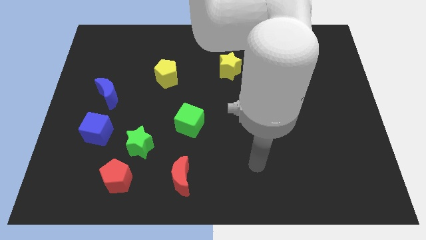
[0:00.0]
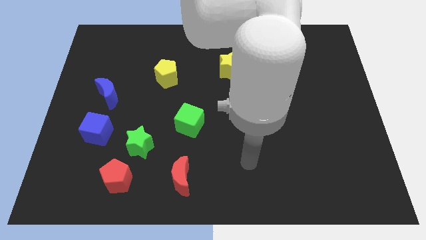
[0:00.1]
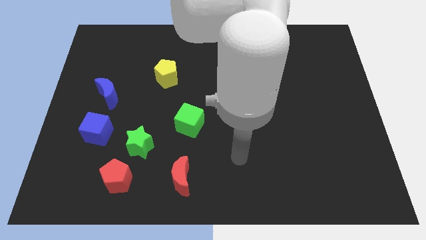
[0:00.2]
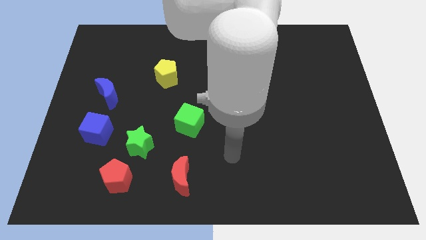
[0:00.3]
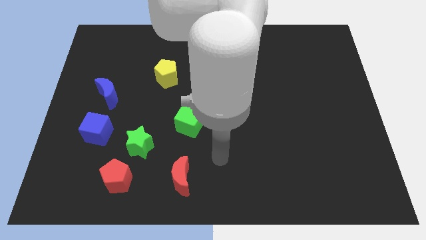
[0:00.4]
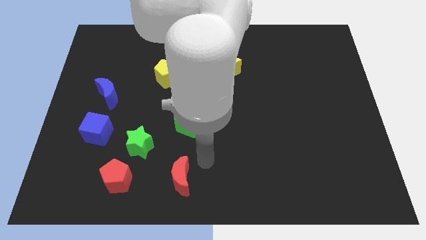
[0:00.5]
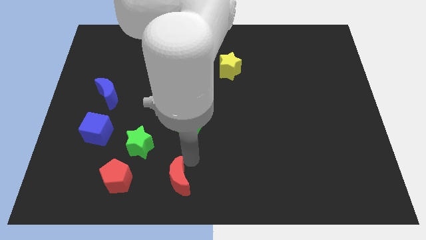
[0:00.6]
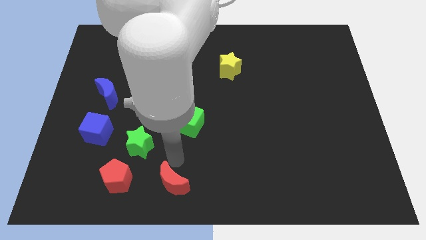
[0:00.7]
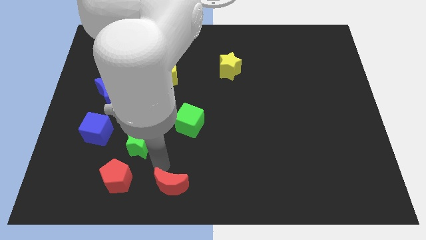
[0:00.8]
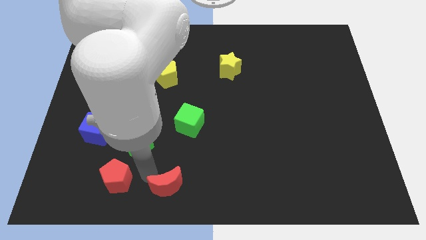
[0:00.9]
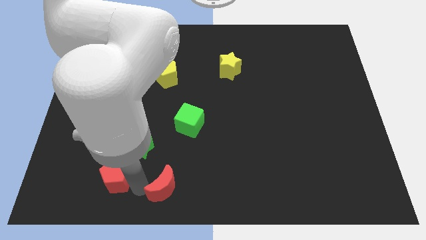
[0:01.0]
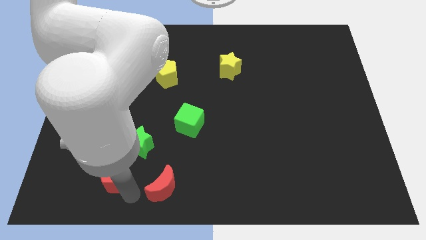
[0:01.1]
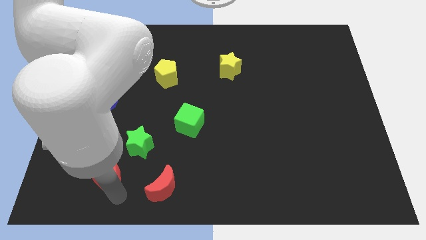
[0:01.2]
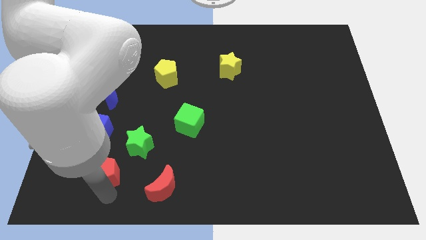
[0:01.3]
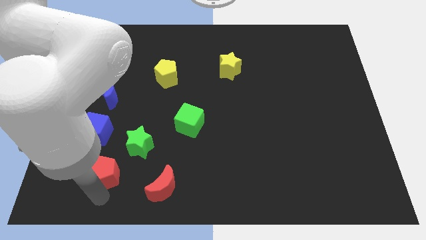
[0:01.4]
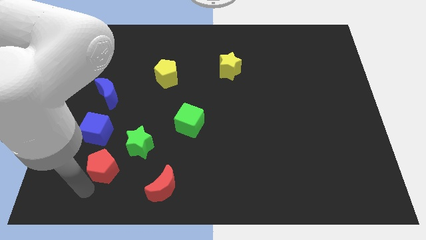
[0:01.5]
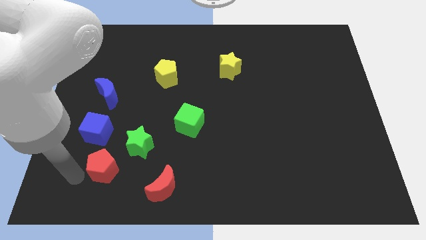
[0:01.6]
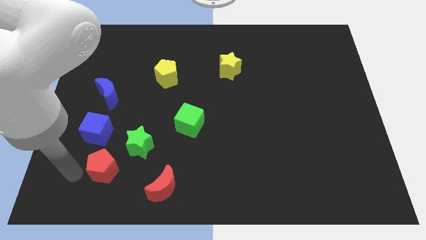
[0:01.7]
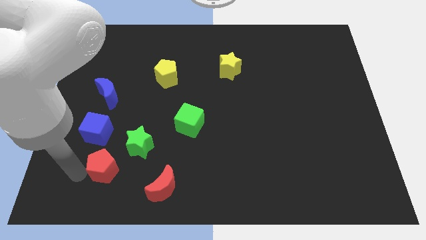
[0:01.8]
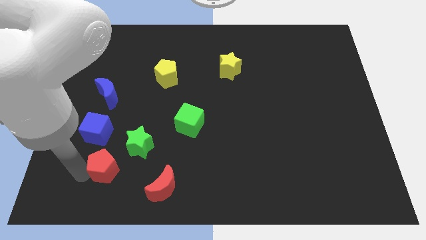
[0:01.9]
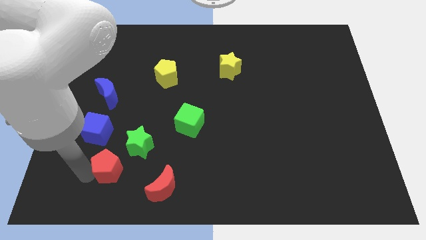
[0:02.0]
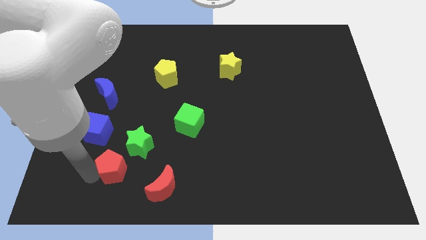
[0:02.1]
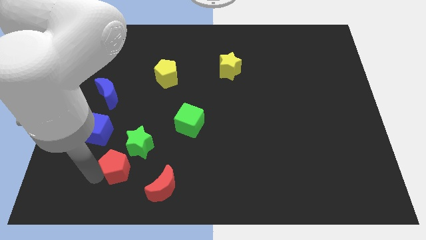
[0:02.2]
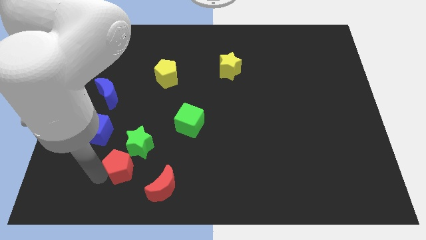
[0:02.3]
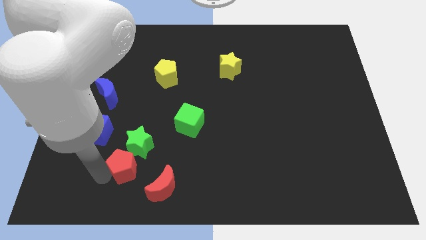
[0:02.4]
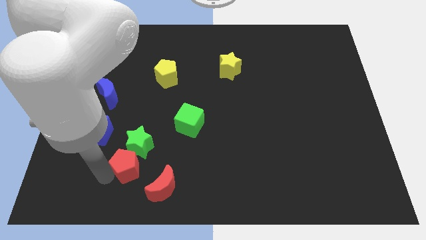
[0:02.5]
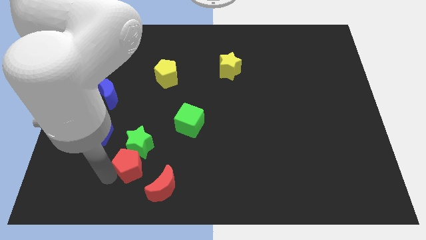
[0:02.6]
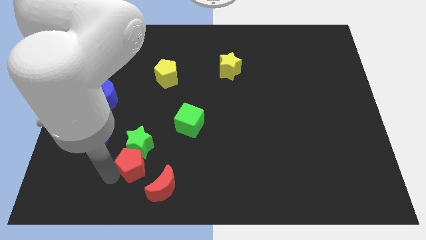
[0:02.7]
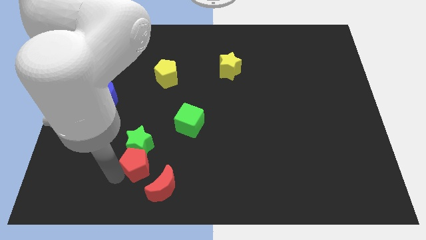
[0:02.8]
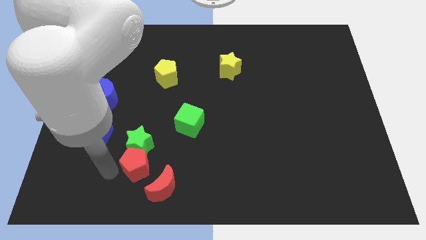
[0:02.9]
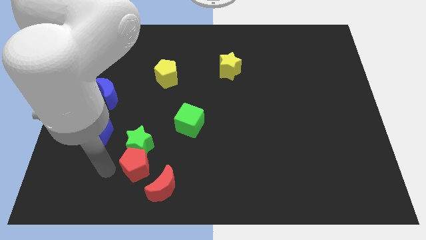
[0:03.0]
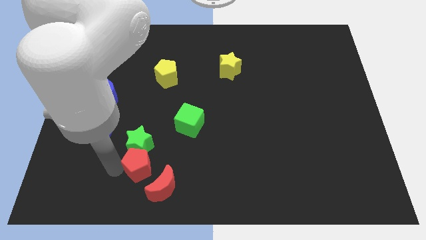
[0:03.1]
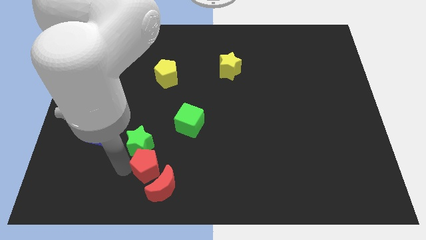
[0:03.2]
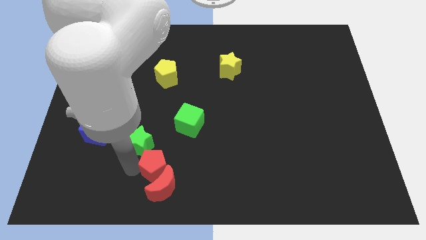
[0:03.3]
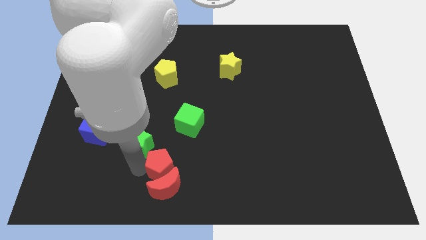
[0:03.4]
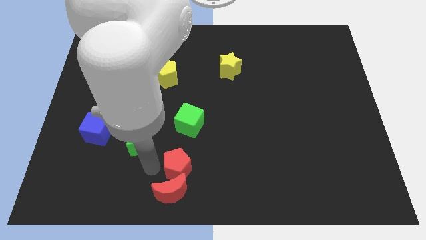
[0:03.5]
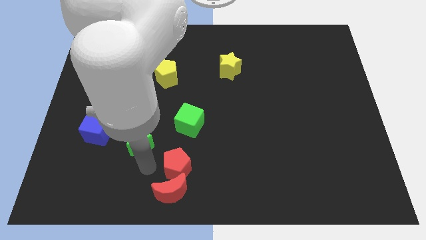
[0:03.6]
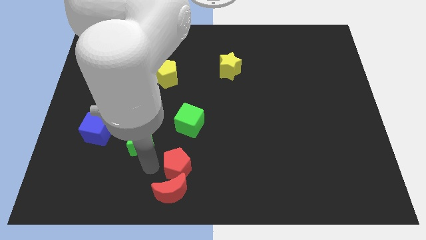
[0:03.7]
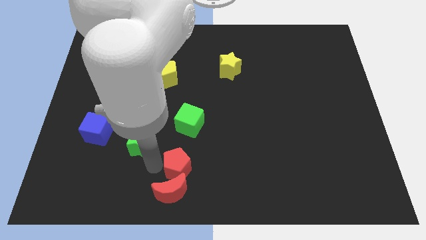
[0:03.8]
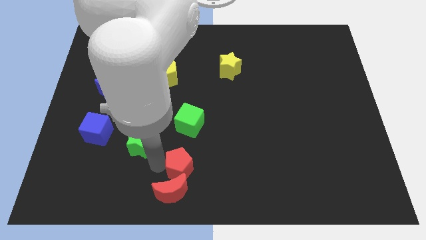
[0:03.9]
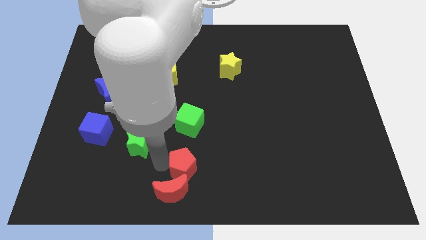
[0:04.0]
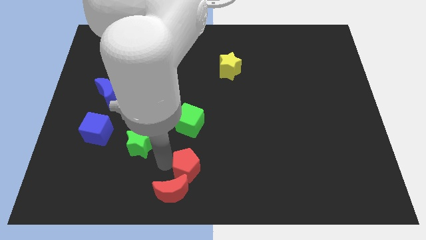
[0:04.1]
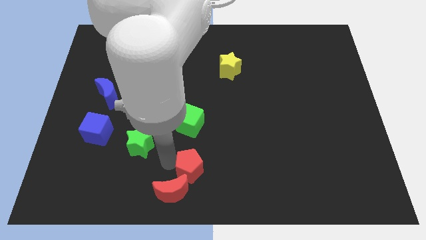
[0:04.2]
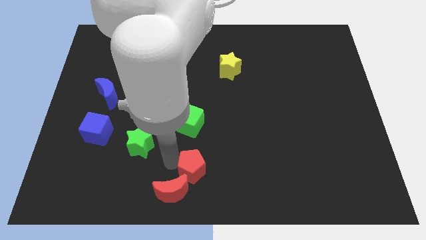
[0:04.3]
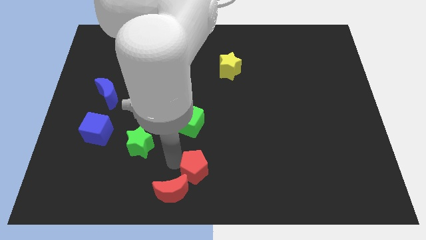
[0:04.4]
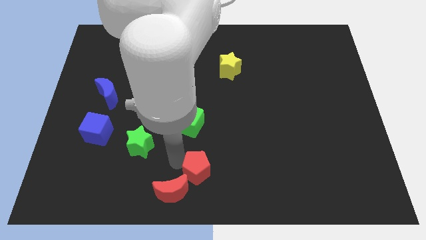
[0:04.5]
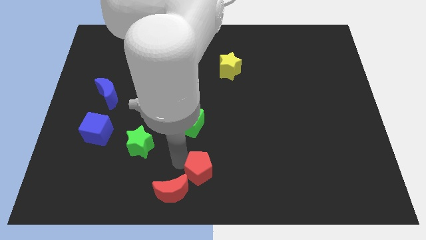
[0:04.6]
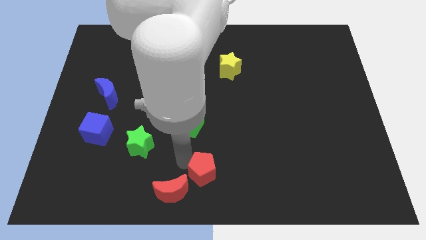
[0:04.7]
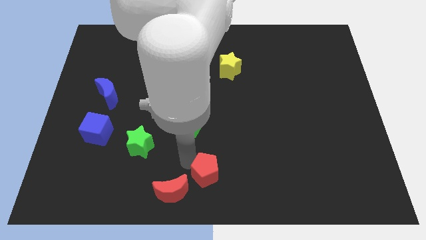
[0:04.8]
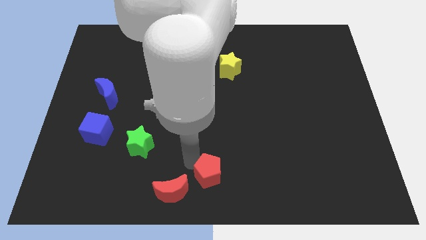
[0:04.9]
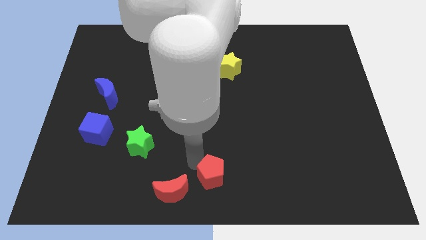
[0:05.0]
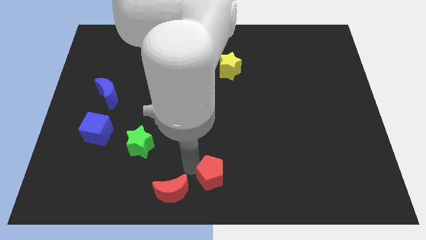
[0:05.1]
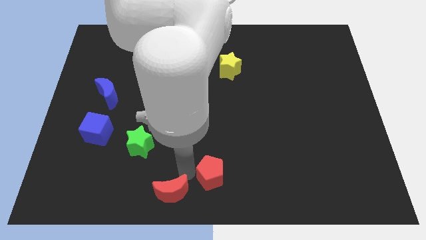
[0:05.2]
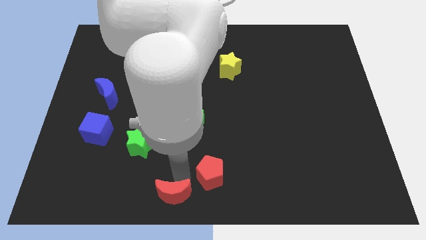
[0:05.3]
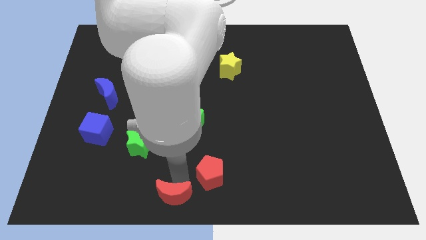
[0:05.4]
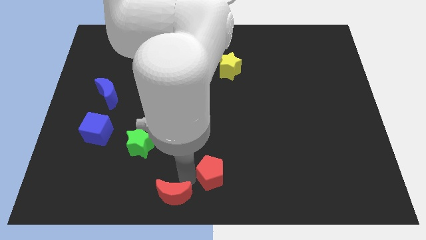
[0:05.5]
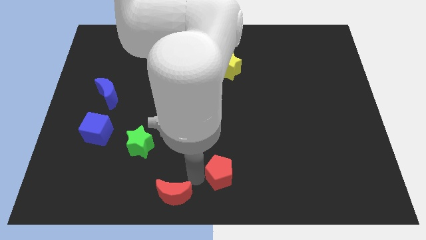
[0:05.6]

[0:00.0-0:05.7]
slide the red pentagon to the right

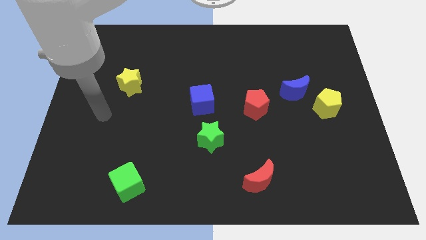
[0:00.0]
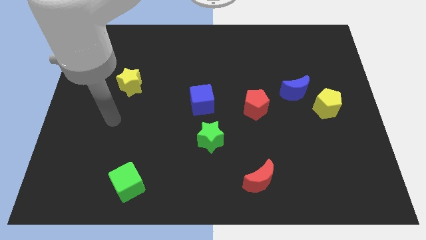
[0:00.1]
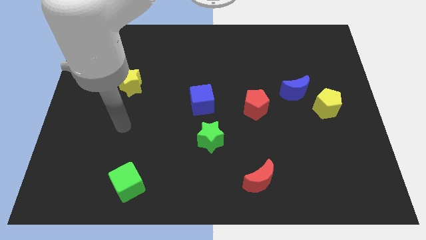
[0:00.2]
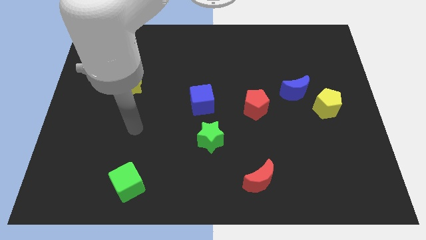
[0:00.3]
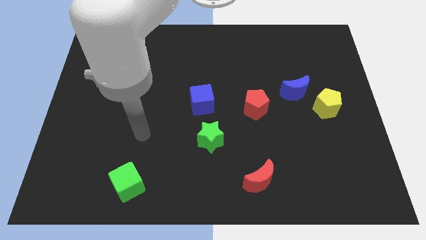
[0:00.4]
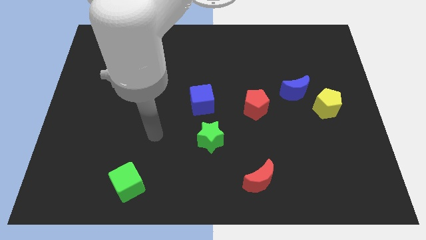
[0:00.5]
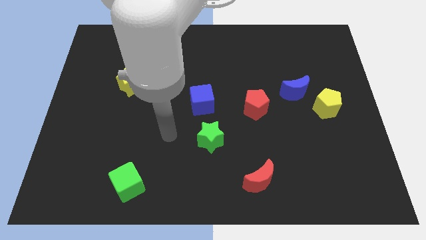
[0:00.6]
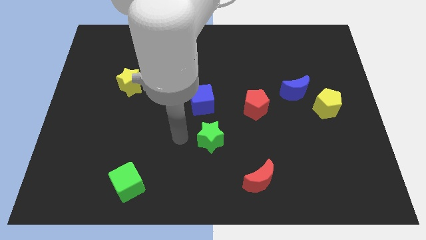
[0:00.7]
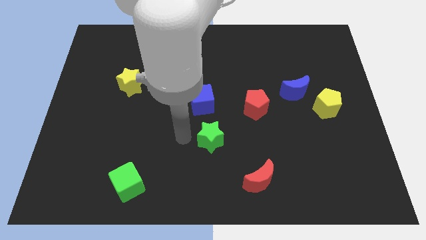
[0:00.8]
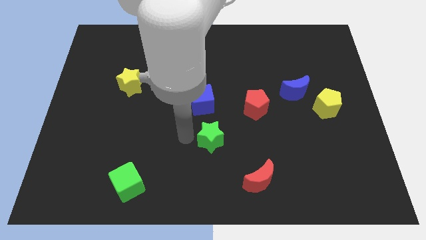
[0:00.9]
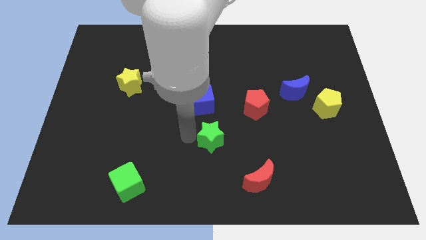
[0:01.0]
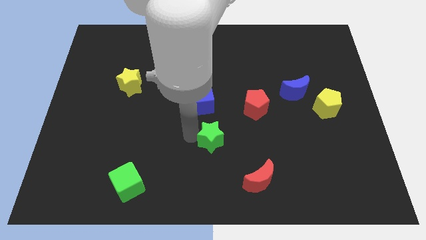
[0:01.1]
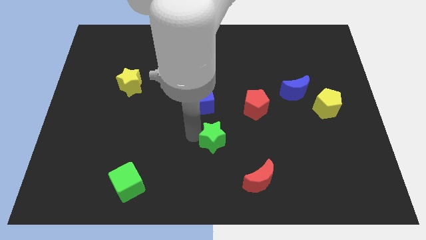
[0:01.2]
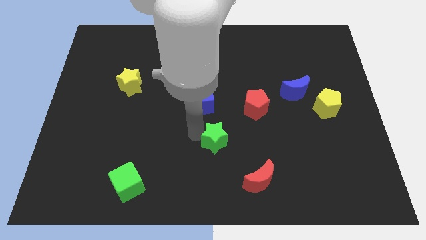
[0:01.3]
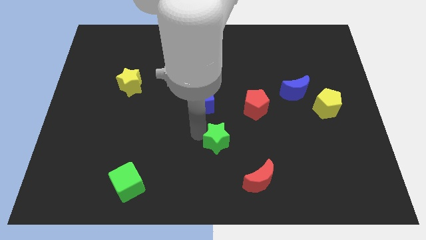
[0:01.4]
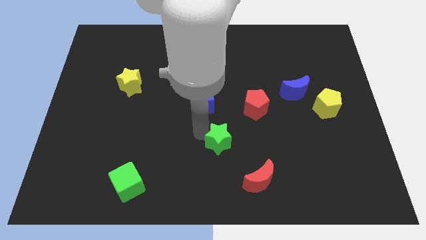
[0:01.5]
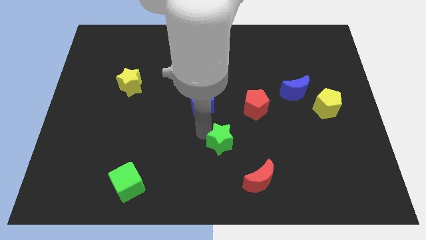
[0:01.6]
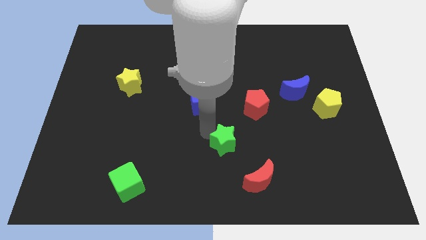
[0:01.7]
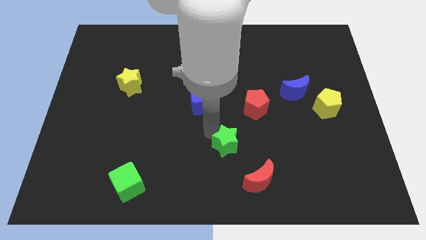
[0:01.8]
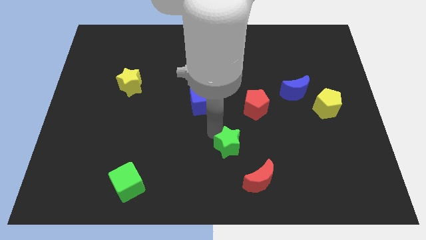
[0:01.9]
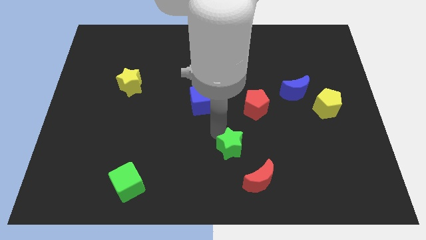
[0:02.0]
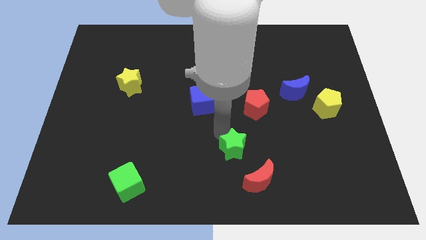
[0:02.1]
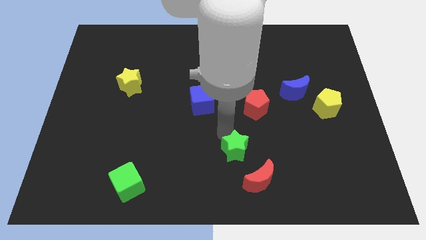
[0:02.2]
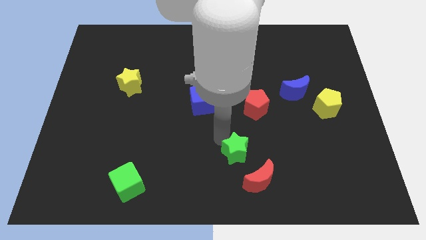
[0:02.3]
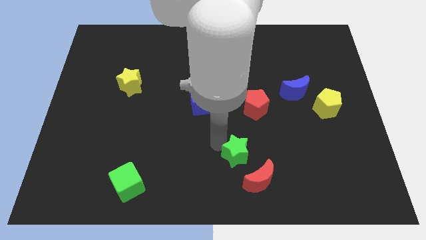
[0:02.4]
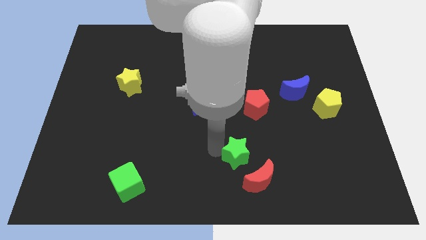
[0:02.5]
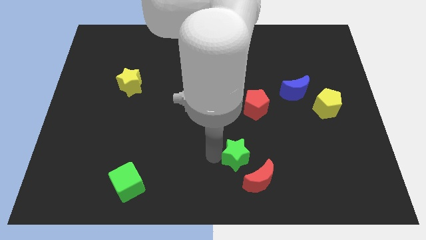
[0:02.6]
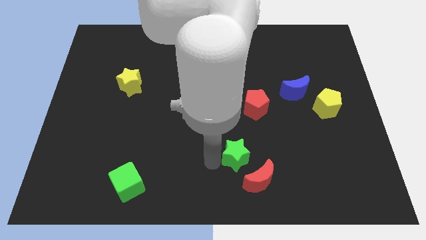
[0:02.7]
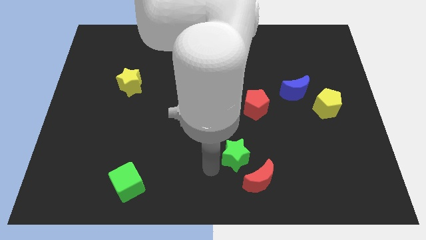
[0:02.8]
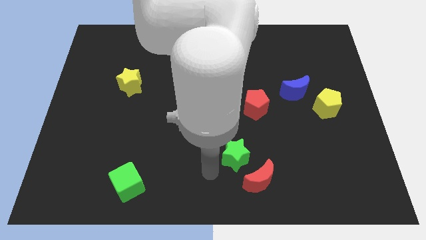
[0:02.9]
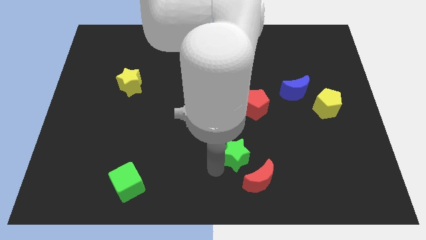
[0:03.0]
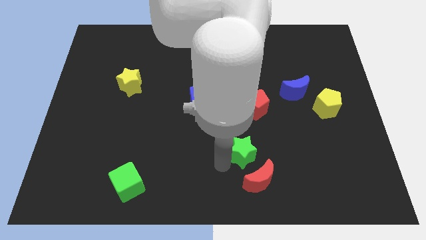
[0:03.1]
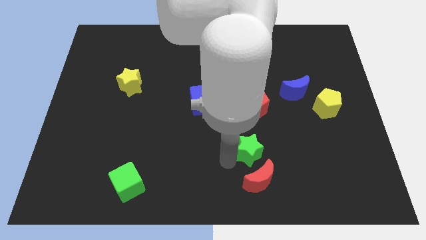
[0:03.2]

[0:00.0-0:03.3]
slightly move the green star to the right
